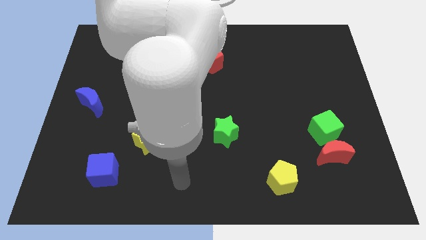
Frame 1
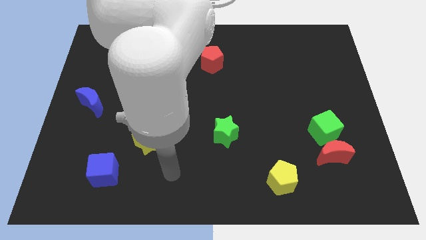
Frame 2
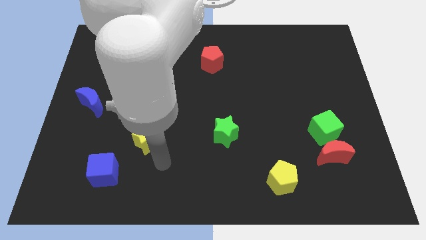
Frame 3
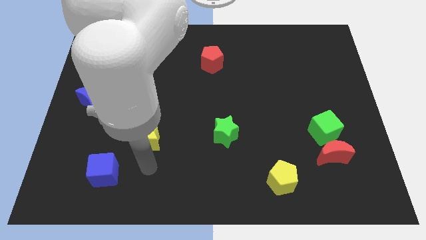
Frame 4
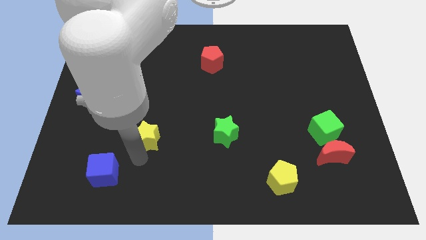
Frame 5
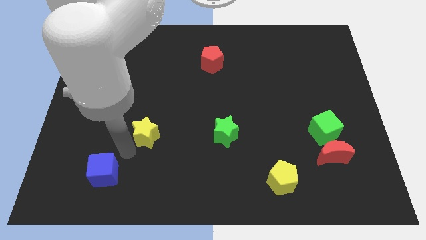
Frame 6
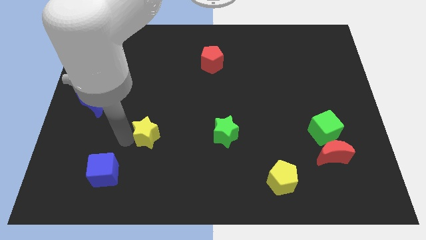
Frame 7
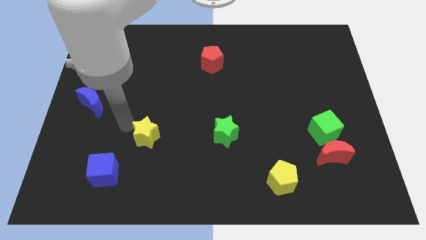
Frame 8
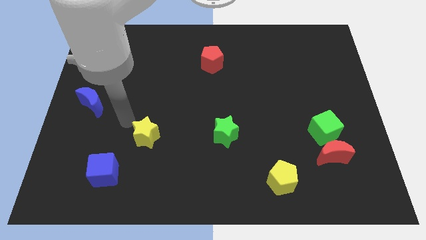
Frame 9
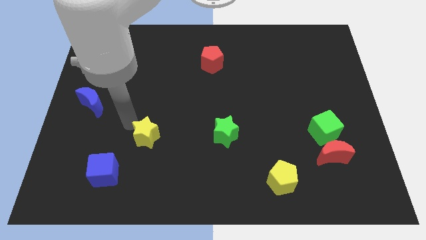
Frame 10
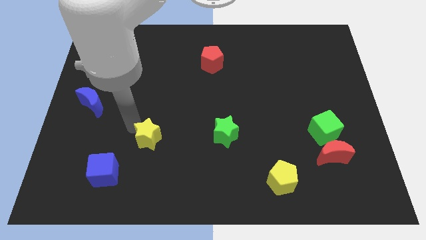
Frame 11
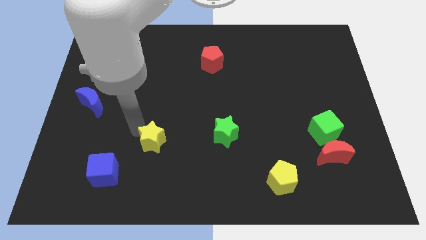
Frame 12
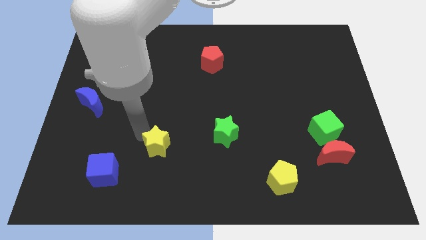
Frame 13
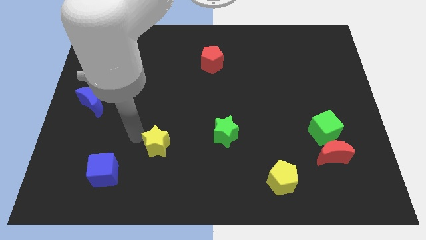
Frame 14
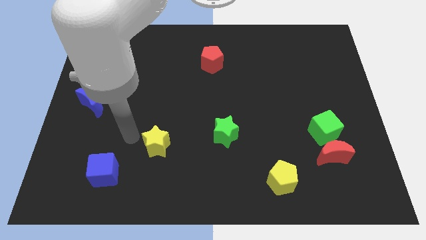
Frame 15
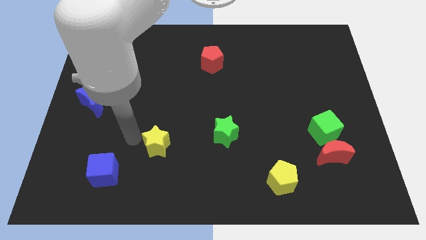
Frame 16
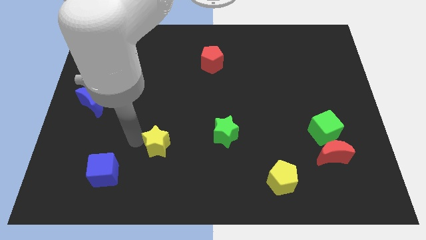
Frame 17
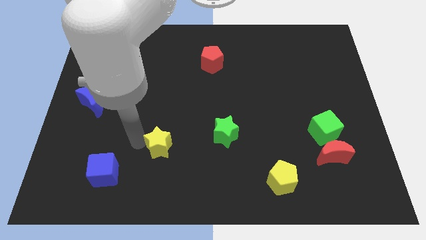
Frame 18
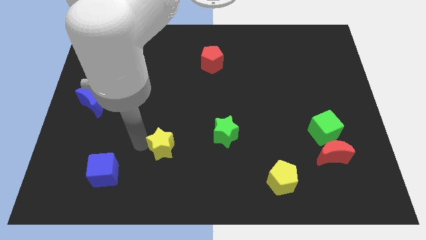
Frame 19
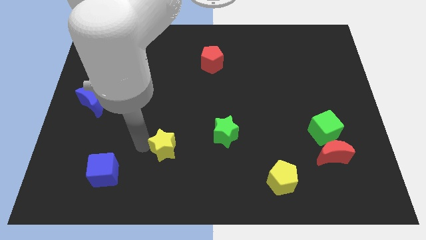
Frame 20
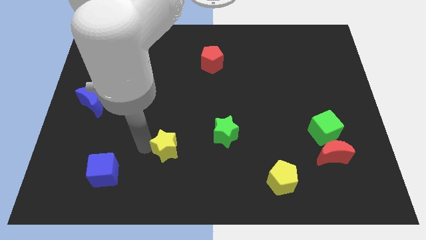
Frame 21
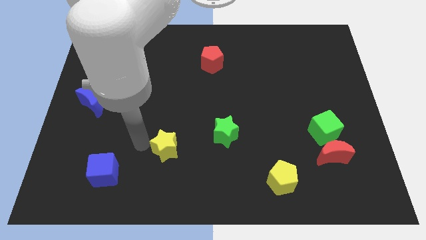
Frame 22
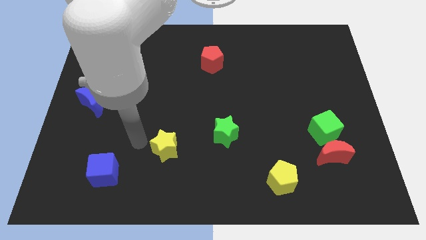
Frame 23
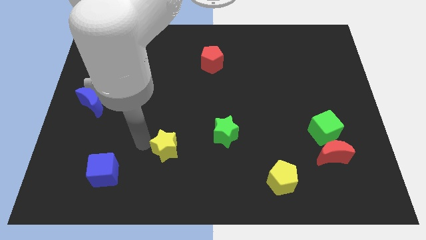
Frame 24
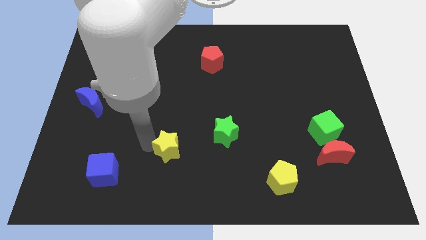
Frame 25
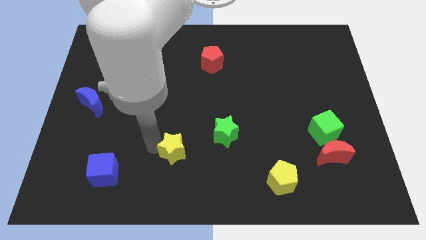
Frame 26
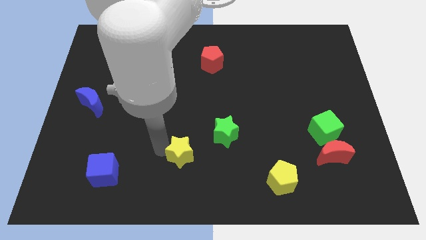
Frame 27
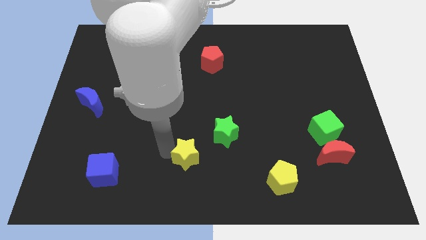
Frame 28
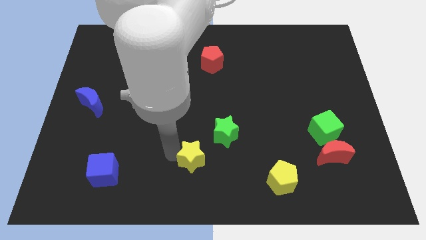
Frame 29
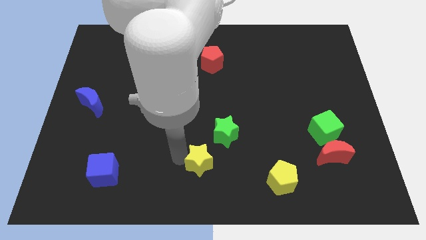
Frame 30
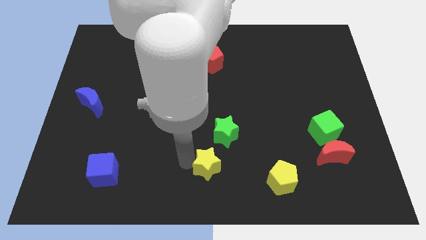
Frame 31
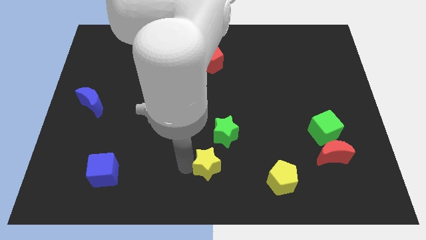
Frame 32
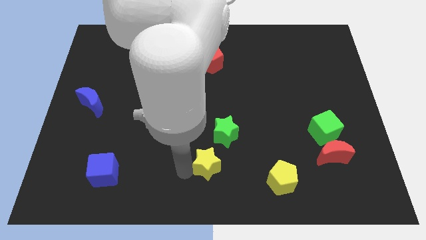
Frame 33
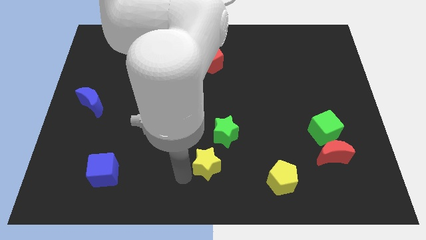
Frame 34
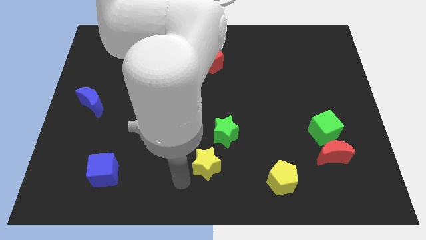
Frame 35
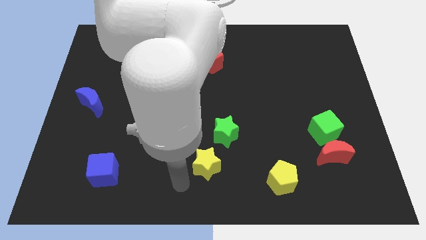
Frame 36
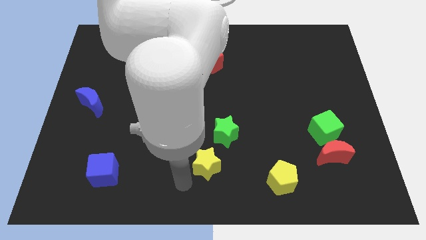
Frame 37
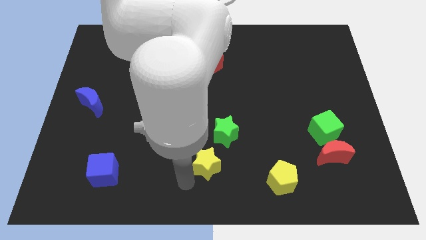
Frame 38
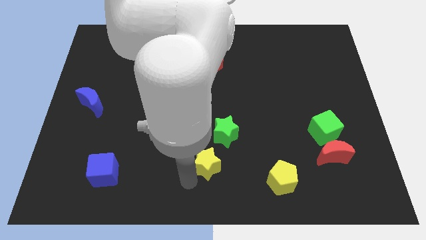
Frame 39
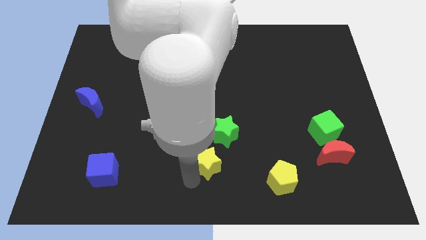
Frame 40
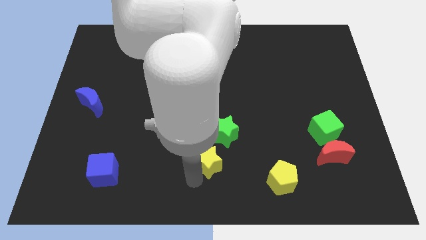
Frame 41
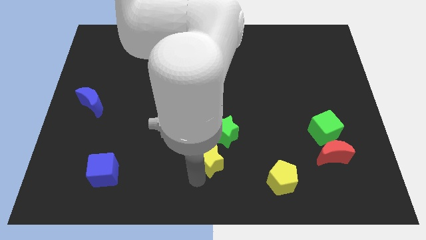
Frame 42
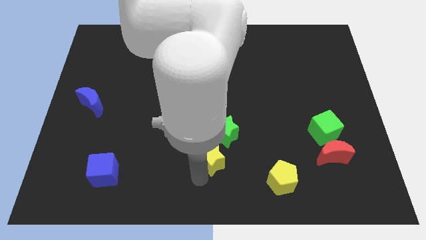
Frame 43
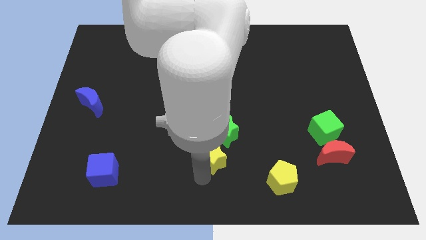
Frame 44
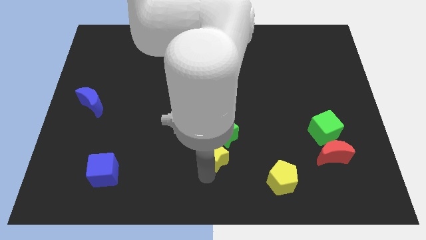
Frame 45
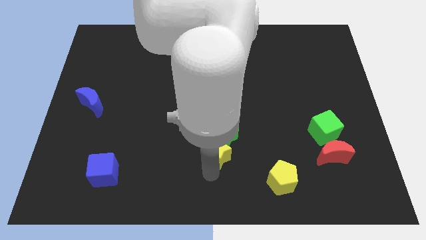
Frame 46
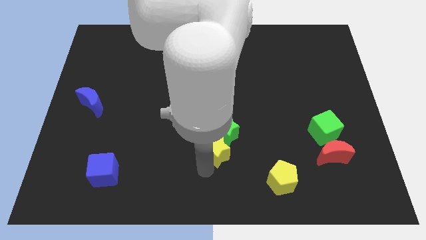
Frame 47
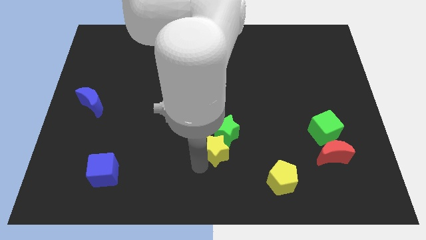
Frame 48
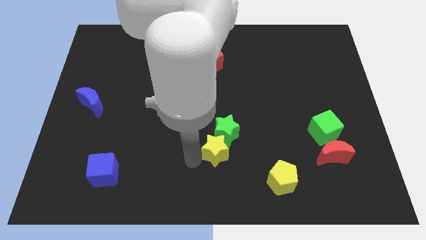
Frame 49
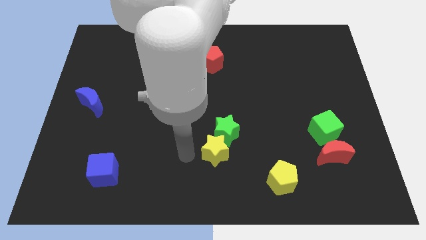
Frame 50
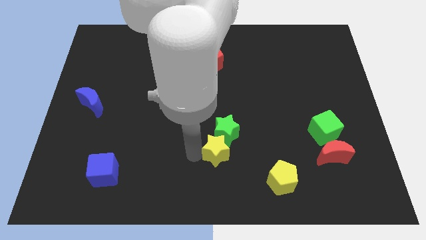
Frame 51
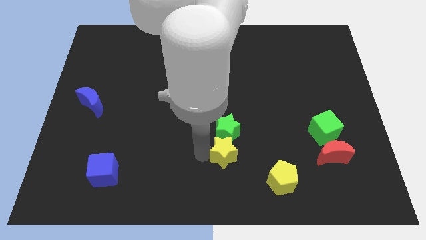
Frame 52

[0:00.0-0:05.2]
move the yellow star to the bottom right of the green star

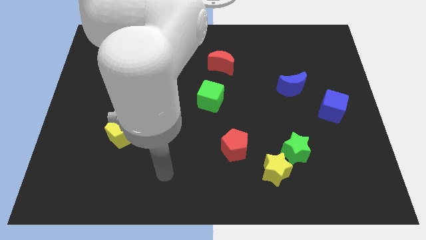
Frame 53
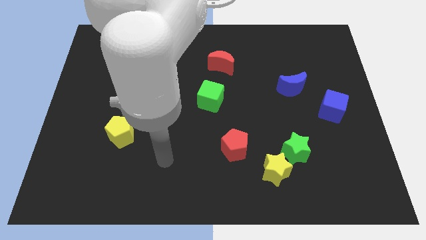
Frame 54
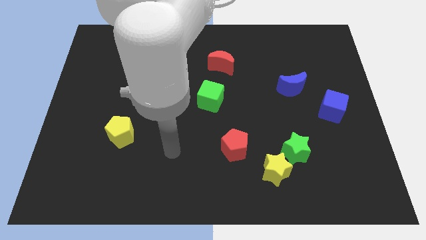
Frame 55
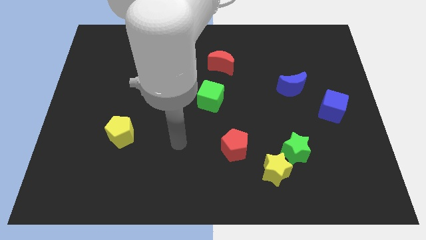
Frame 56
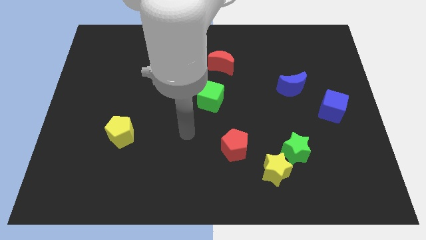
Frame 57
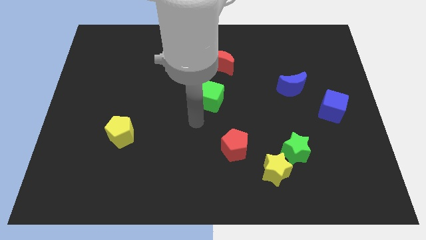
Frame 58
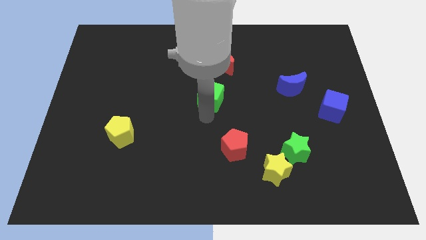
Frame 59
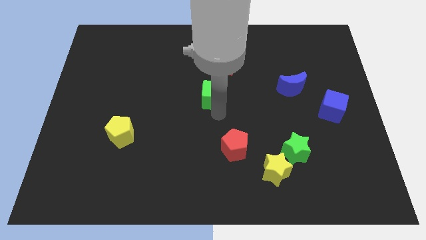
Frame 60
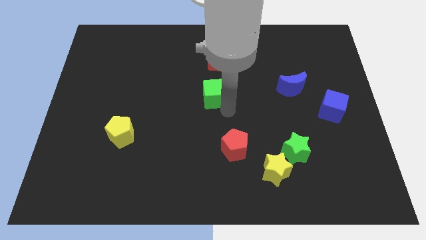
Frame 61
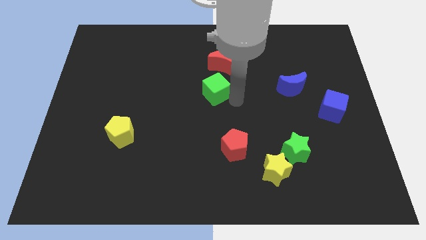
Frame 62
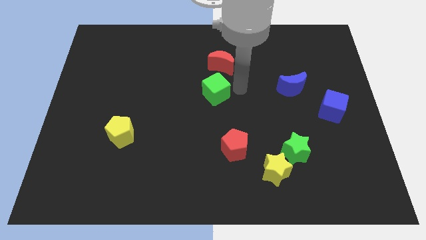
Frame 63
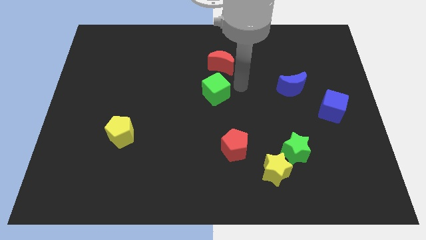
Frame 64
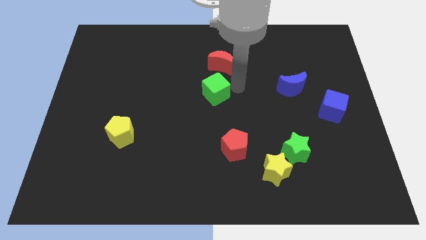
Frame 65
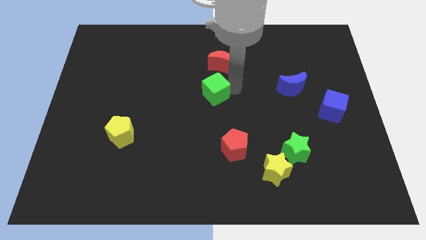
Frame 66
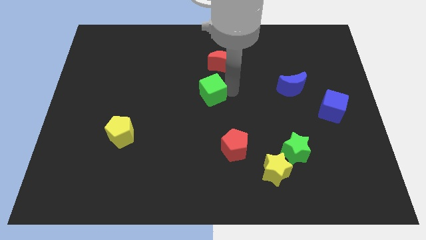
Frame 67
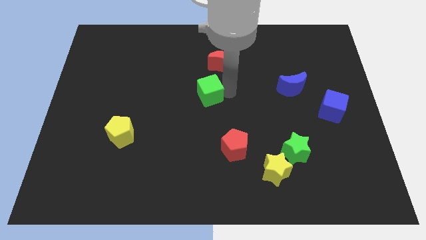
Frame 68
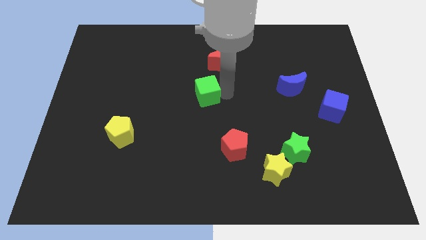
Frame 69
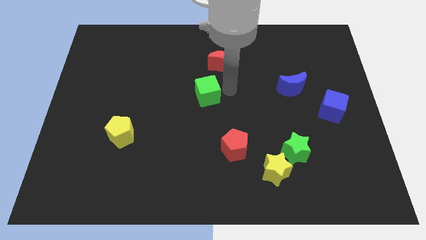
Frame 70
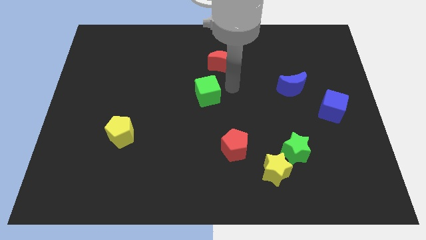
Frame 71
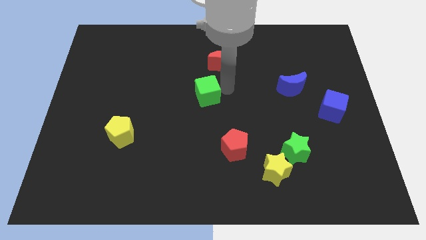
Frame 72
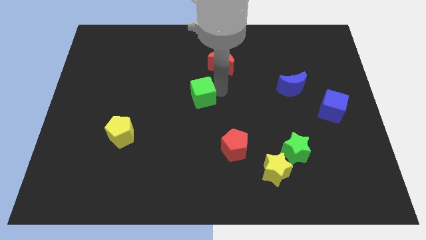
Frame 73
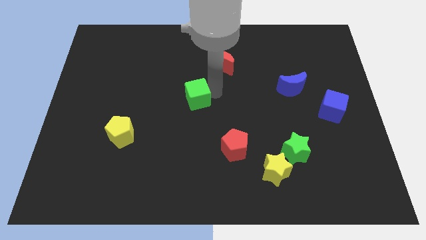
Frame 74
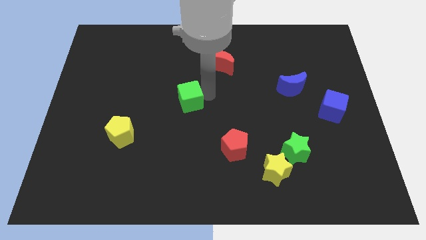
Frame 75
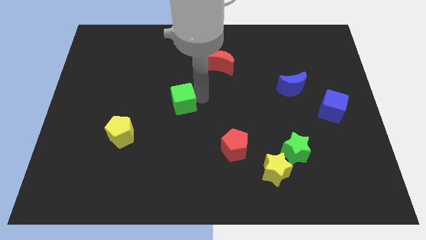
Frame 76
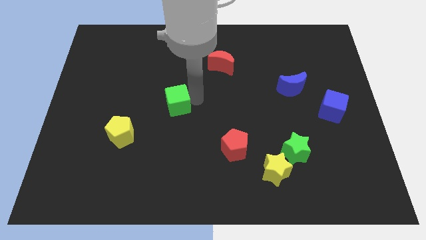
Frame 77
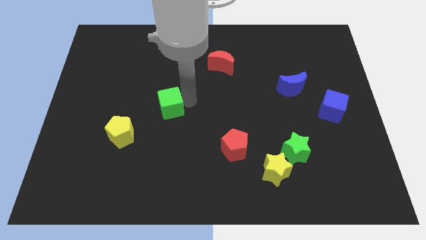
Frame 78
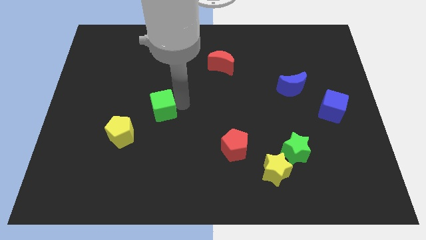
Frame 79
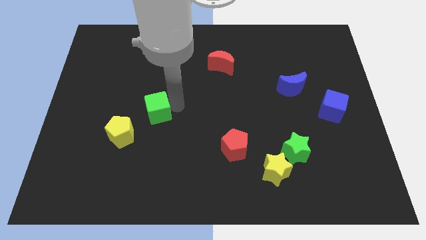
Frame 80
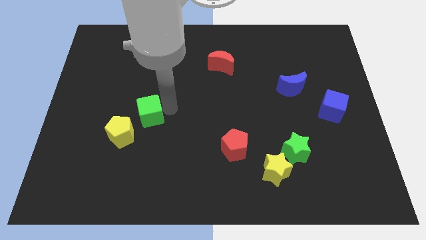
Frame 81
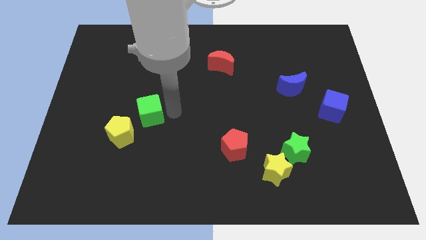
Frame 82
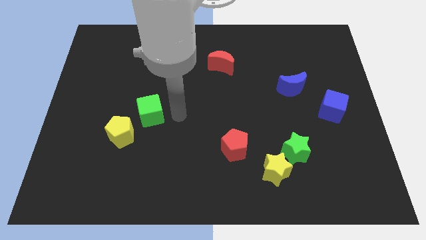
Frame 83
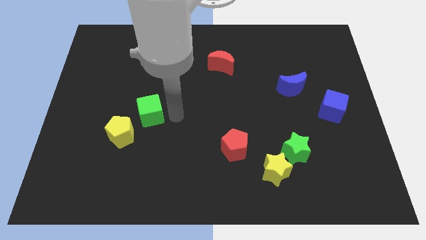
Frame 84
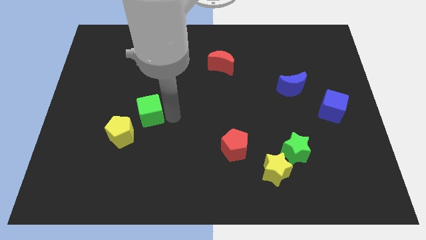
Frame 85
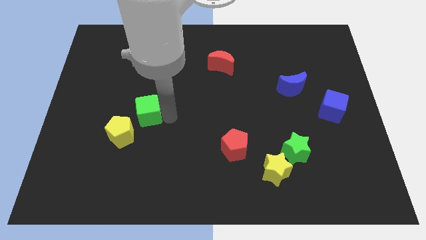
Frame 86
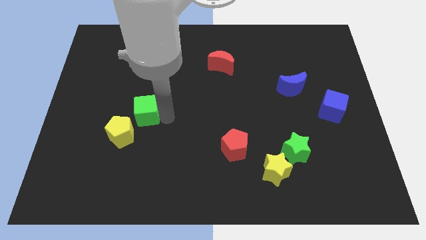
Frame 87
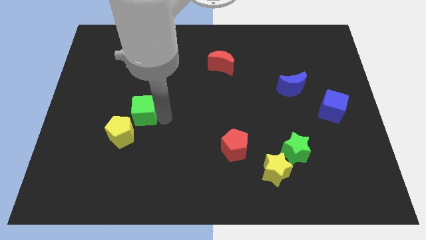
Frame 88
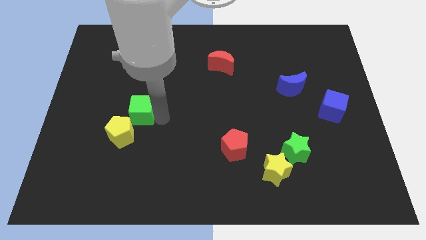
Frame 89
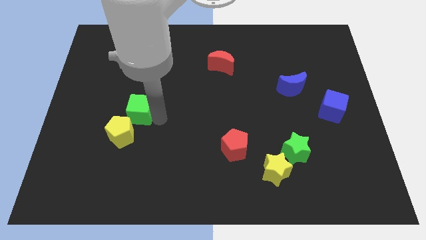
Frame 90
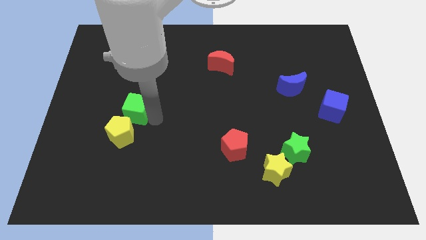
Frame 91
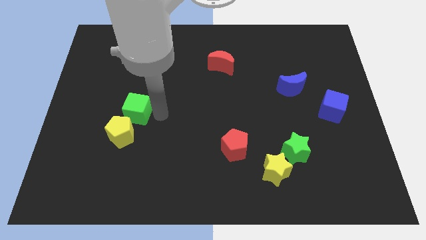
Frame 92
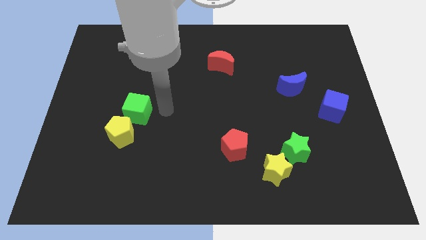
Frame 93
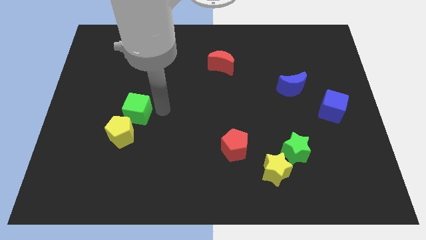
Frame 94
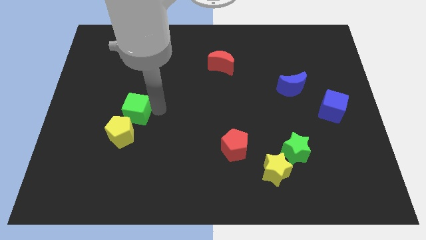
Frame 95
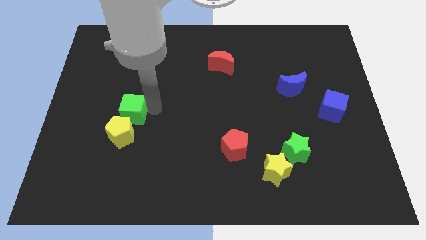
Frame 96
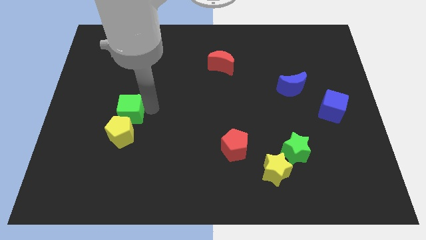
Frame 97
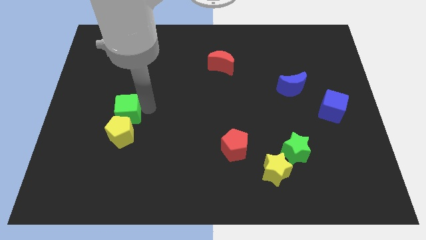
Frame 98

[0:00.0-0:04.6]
put the green cube to the top left of the yellow pentagon
